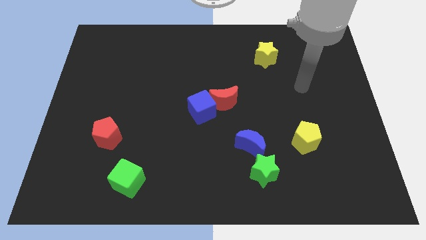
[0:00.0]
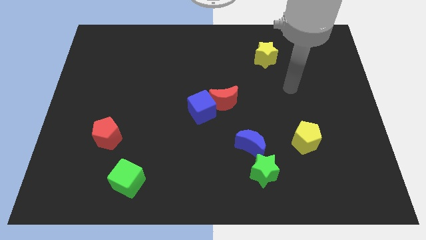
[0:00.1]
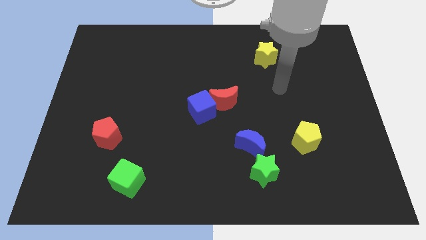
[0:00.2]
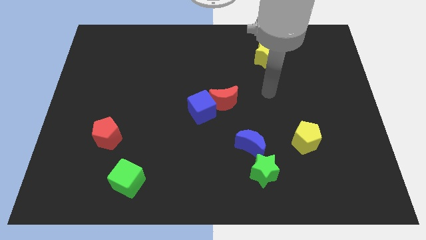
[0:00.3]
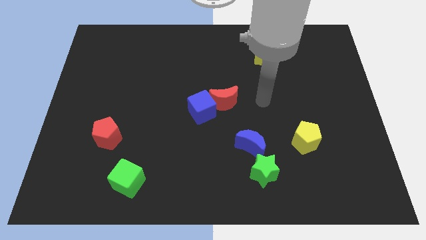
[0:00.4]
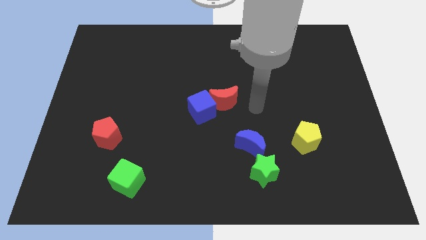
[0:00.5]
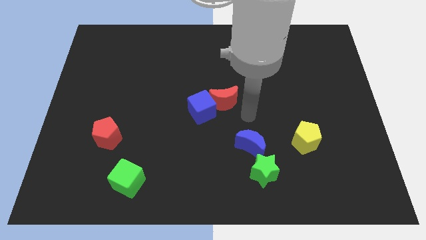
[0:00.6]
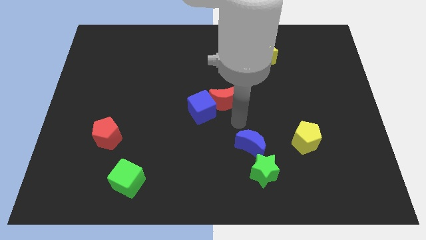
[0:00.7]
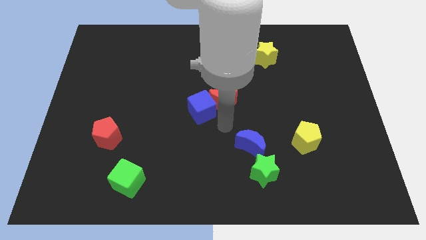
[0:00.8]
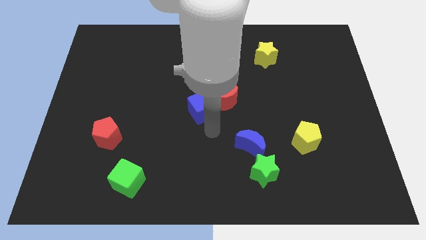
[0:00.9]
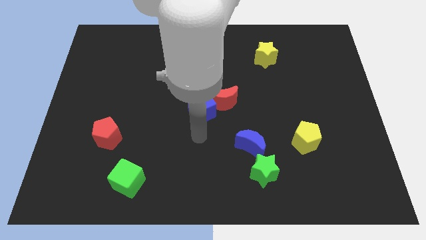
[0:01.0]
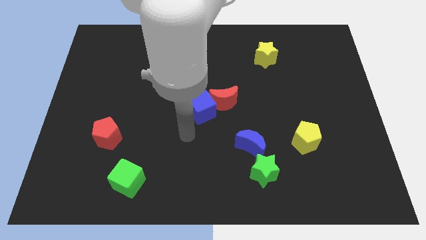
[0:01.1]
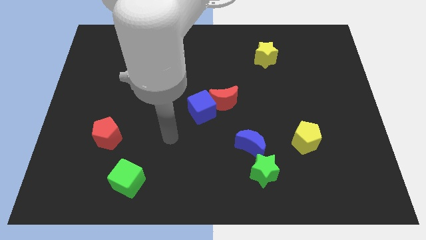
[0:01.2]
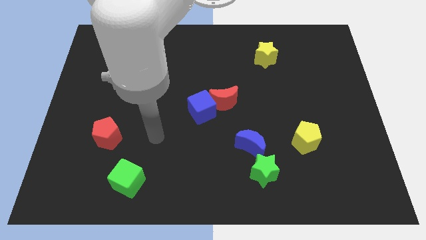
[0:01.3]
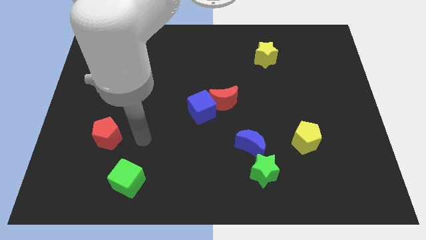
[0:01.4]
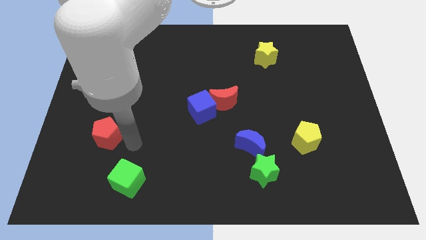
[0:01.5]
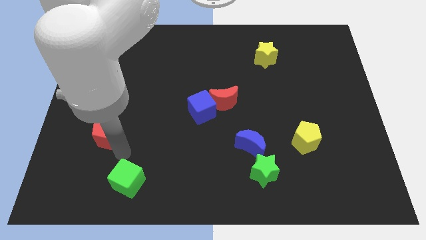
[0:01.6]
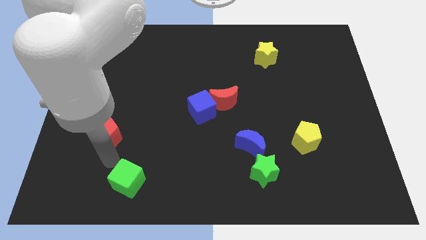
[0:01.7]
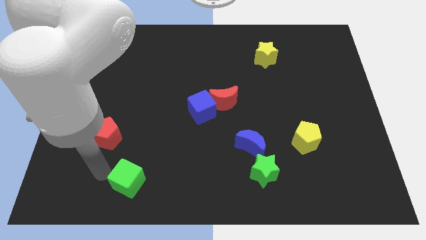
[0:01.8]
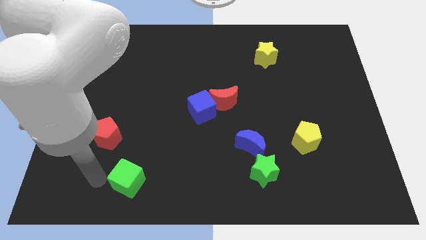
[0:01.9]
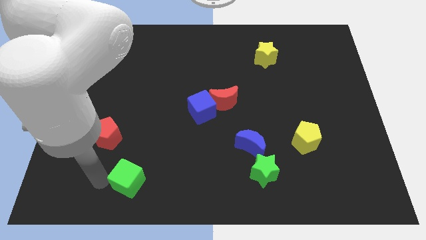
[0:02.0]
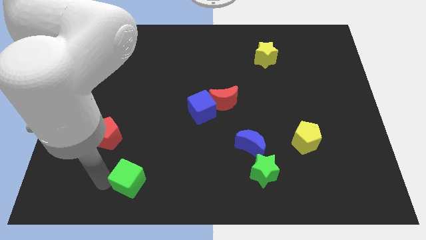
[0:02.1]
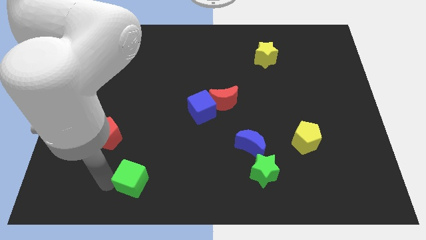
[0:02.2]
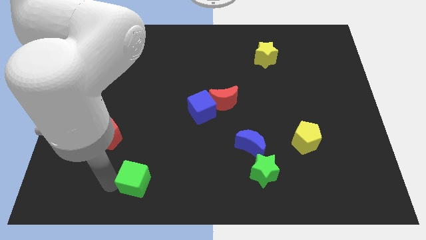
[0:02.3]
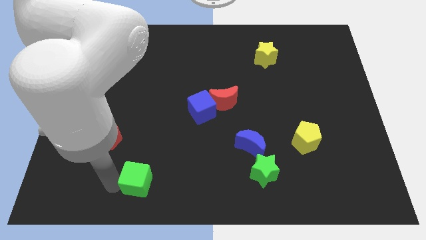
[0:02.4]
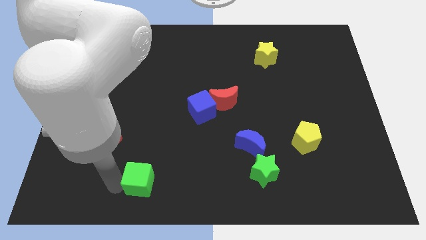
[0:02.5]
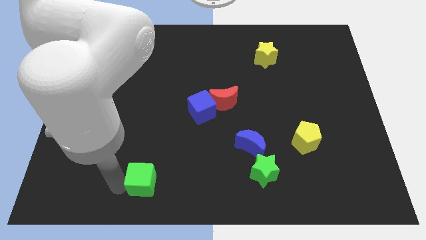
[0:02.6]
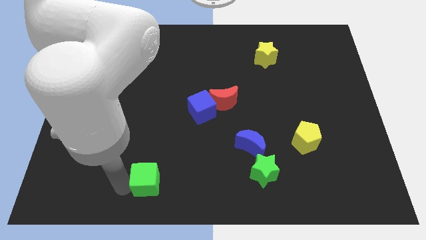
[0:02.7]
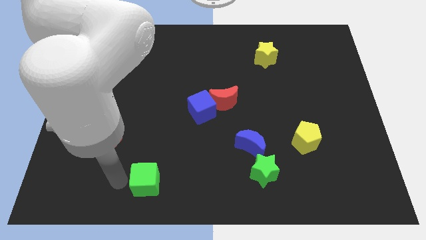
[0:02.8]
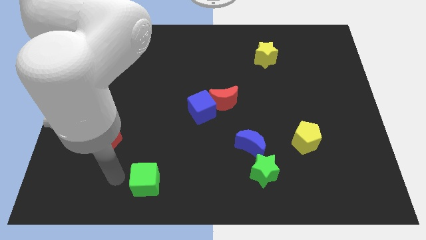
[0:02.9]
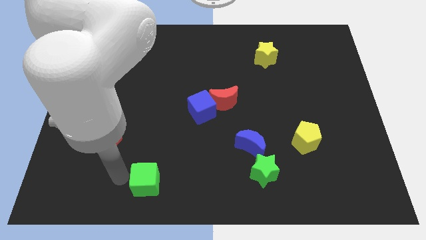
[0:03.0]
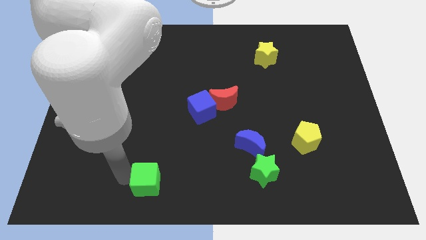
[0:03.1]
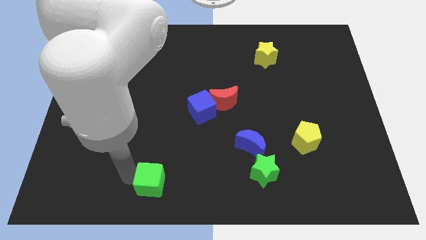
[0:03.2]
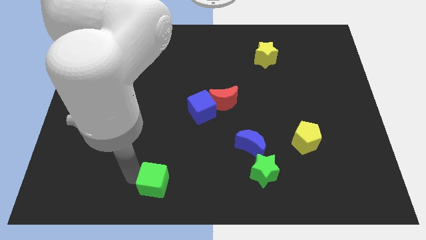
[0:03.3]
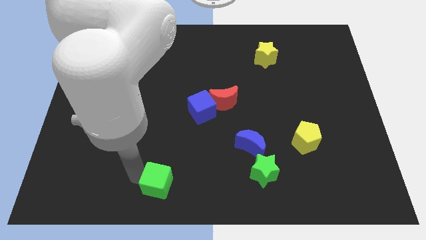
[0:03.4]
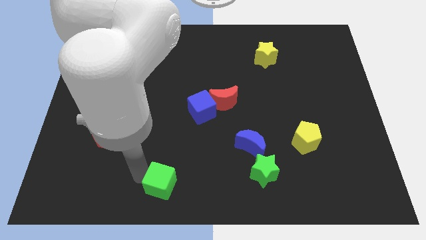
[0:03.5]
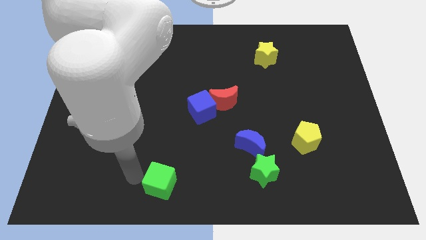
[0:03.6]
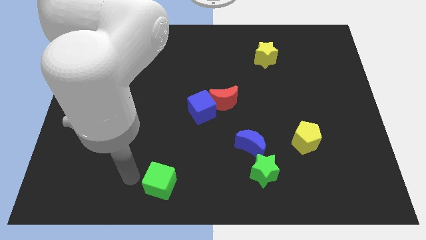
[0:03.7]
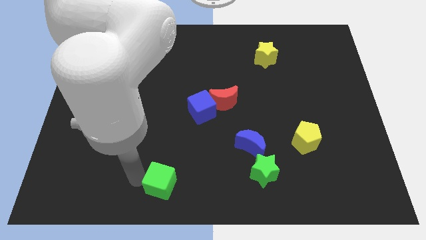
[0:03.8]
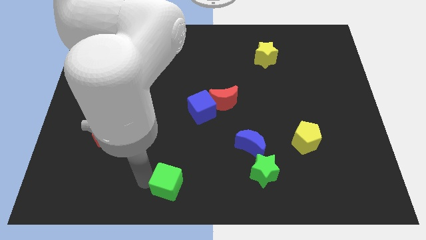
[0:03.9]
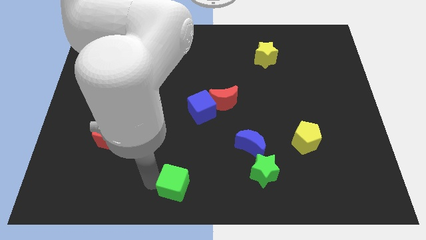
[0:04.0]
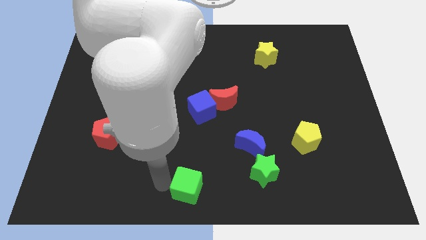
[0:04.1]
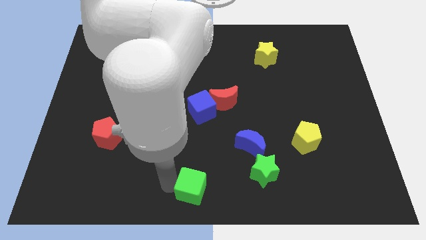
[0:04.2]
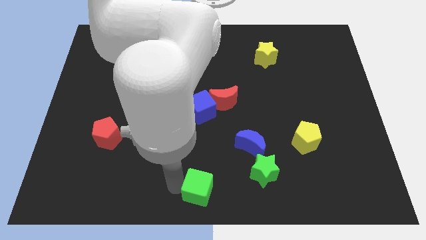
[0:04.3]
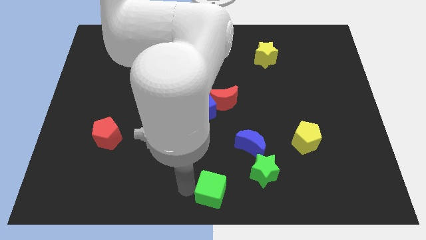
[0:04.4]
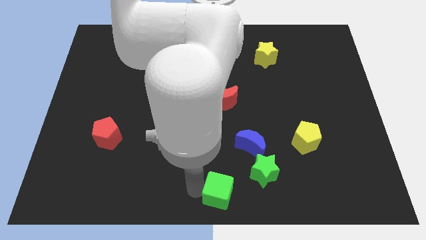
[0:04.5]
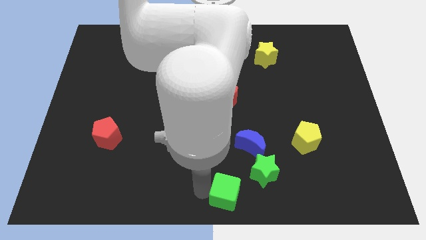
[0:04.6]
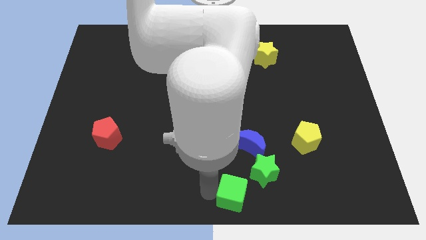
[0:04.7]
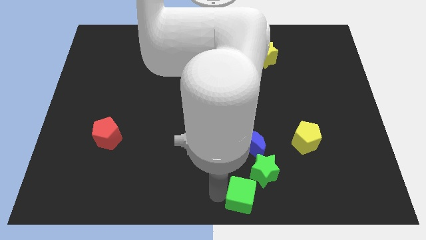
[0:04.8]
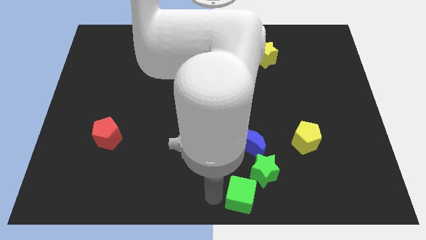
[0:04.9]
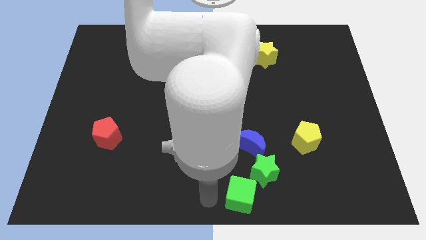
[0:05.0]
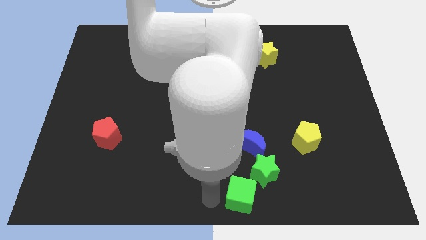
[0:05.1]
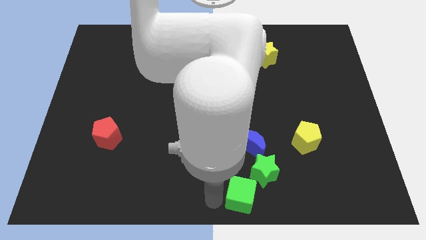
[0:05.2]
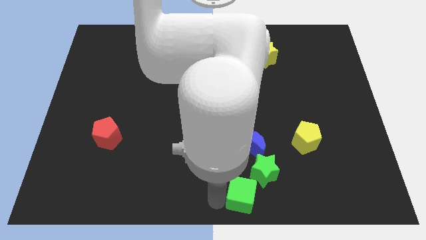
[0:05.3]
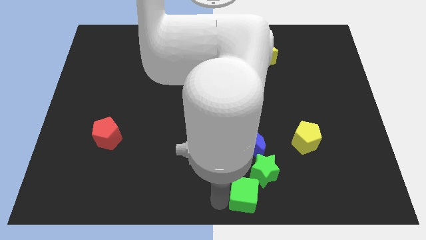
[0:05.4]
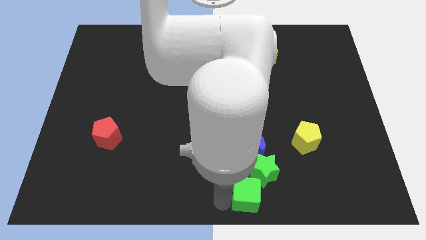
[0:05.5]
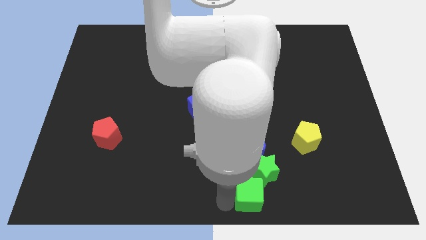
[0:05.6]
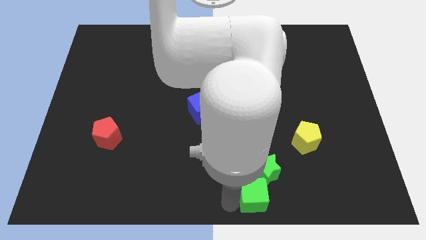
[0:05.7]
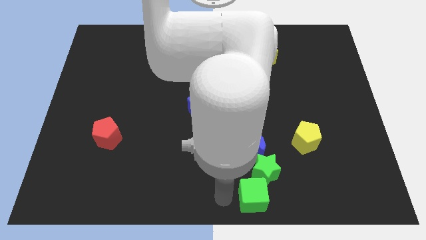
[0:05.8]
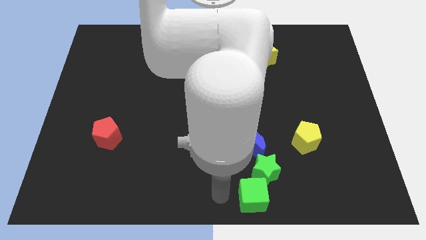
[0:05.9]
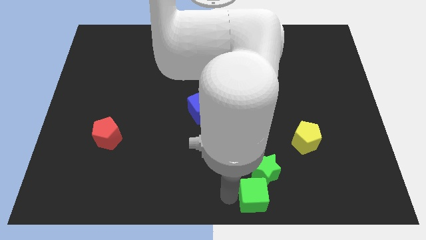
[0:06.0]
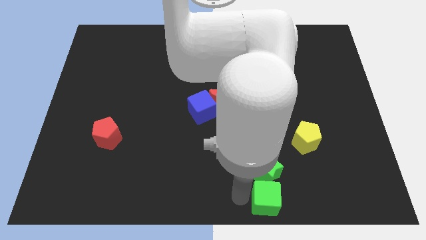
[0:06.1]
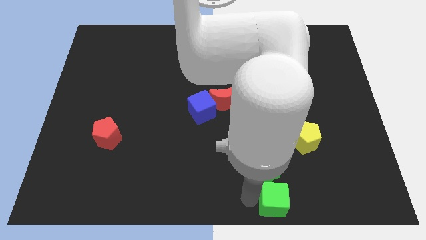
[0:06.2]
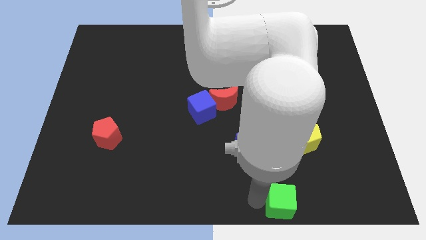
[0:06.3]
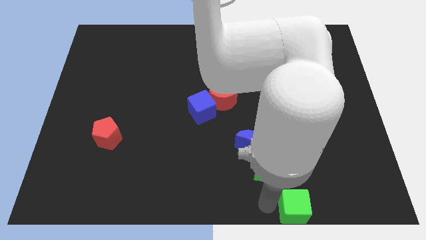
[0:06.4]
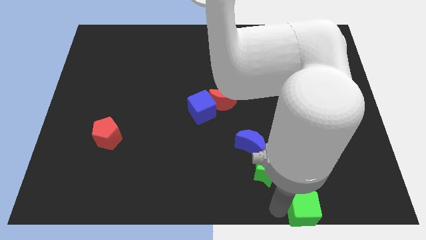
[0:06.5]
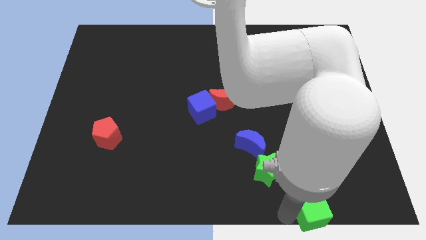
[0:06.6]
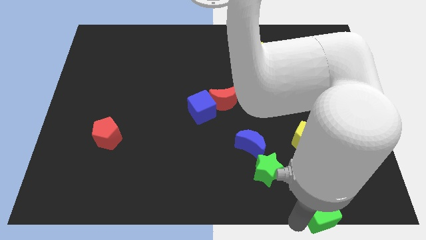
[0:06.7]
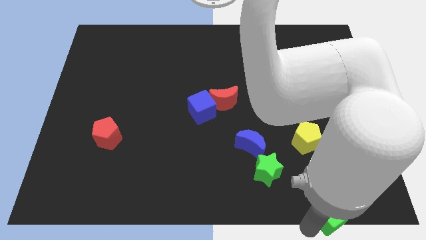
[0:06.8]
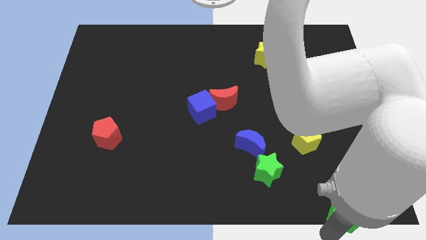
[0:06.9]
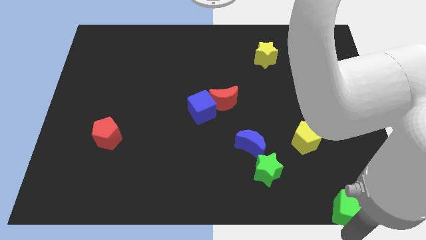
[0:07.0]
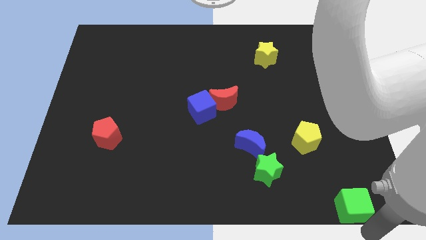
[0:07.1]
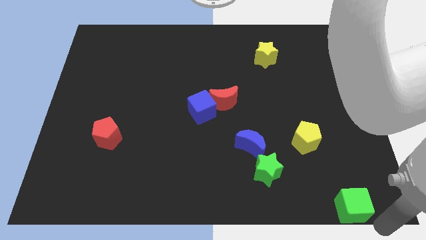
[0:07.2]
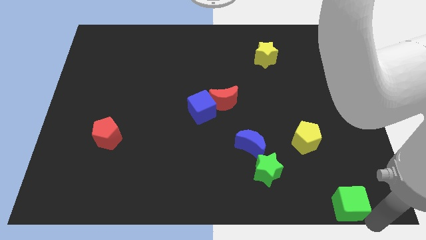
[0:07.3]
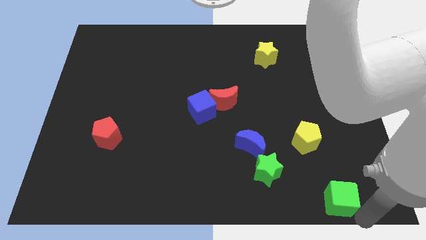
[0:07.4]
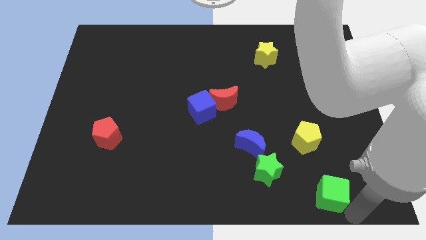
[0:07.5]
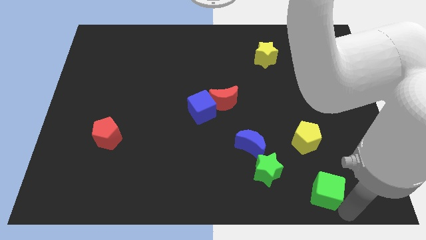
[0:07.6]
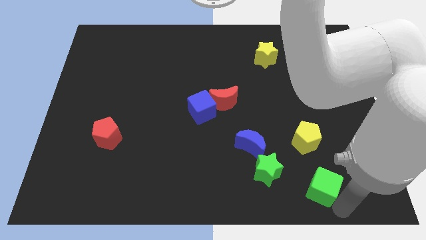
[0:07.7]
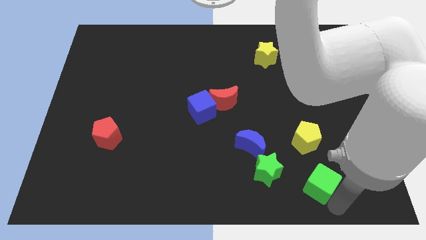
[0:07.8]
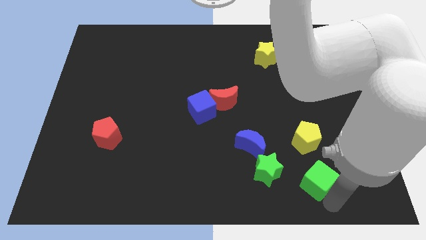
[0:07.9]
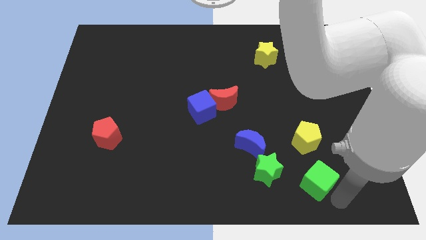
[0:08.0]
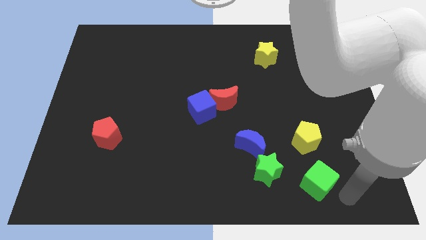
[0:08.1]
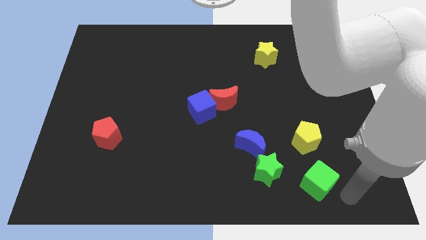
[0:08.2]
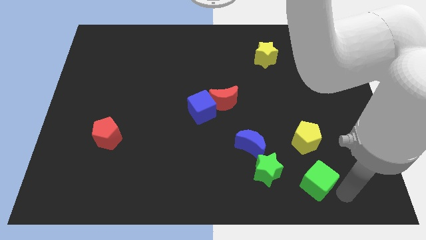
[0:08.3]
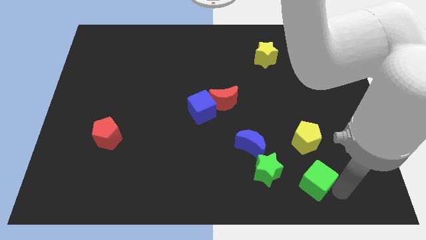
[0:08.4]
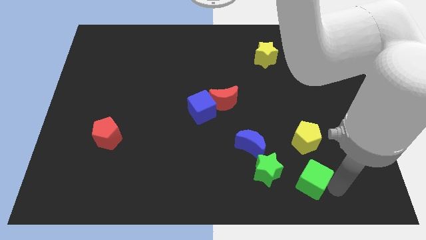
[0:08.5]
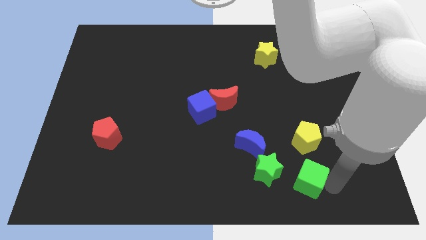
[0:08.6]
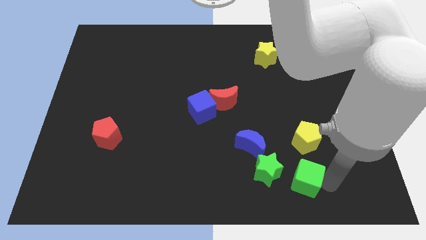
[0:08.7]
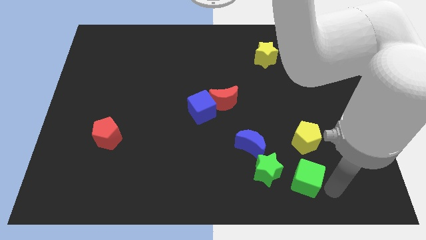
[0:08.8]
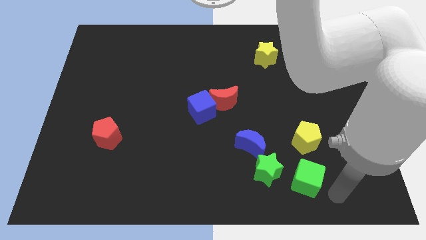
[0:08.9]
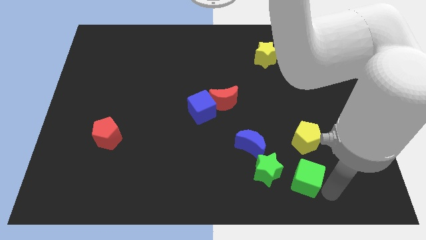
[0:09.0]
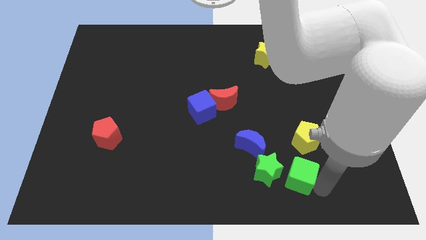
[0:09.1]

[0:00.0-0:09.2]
put the green cube to the bottom right of the blue moon
